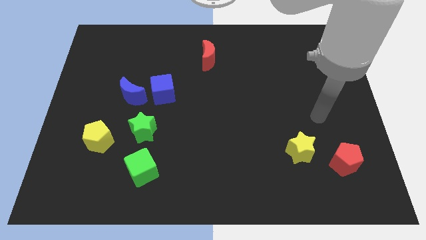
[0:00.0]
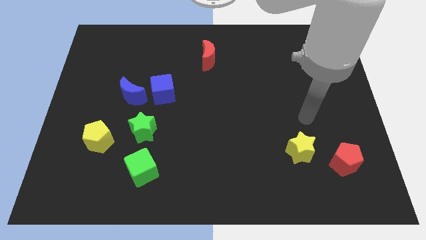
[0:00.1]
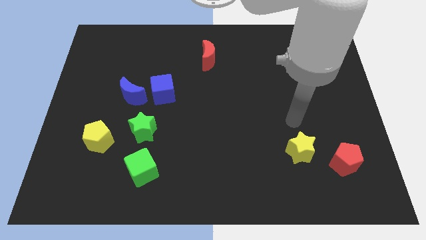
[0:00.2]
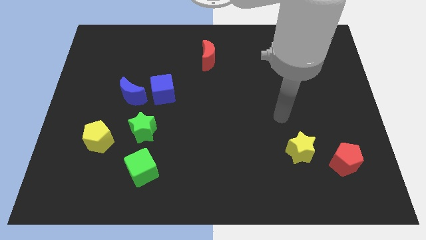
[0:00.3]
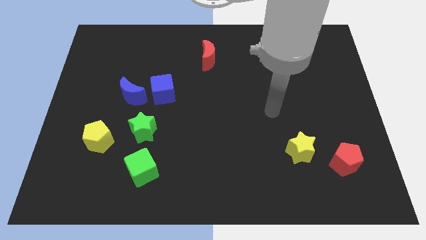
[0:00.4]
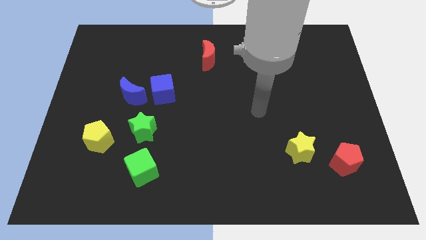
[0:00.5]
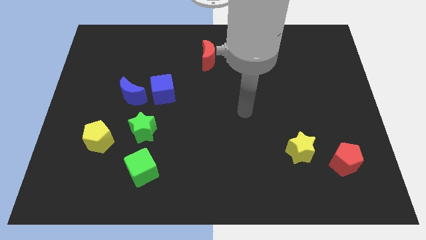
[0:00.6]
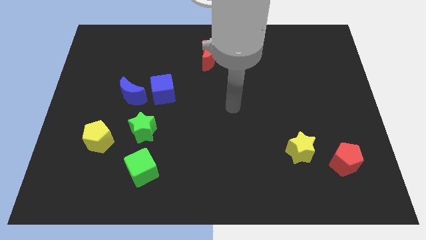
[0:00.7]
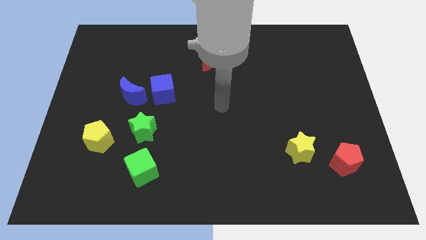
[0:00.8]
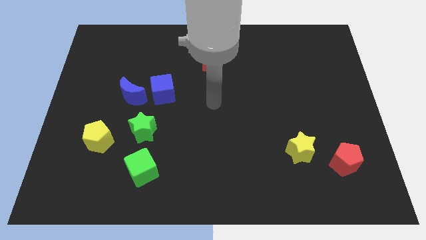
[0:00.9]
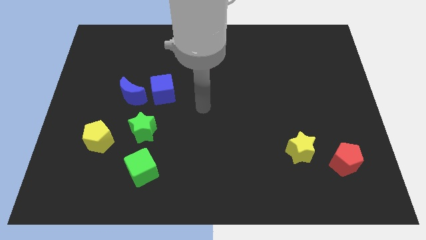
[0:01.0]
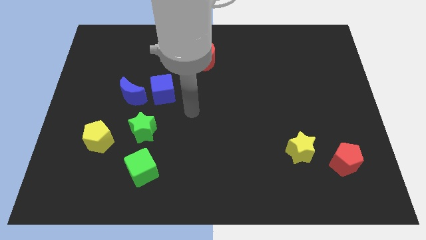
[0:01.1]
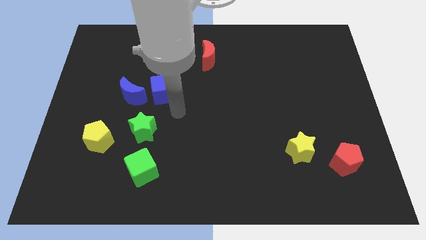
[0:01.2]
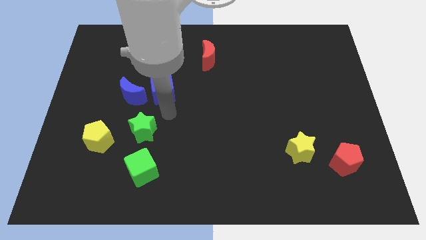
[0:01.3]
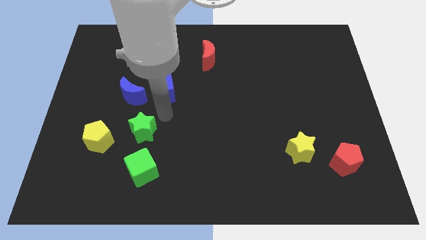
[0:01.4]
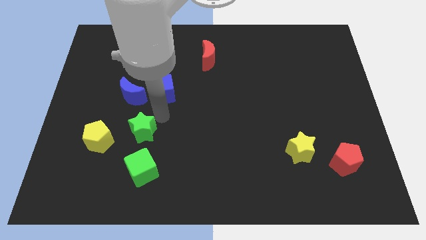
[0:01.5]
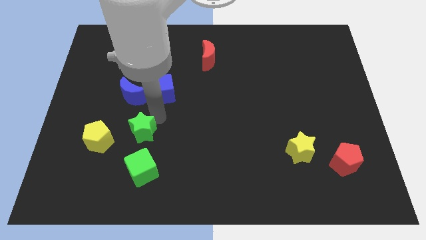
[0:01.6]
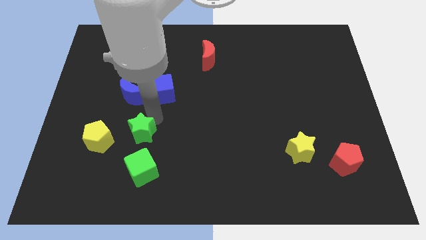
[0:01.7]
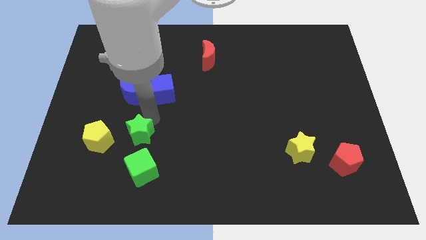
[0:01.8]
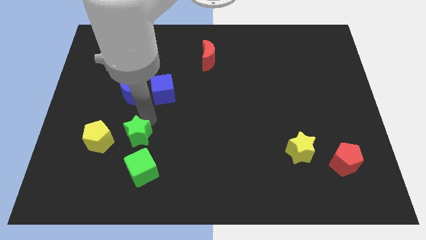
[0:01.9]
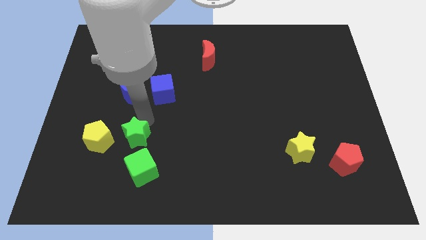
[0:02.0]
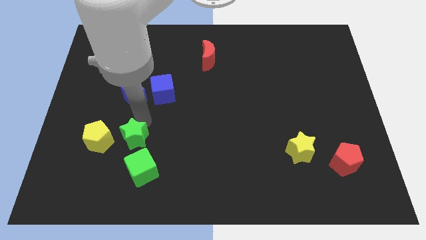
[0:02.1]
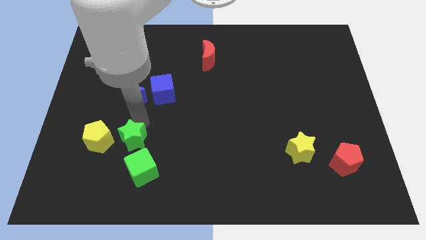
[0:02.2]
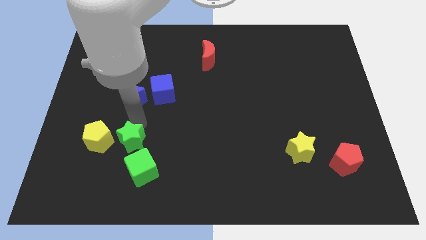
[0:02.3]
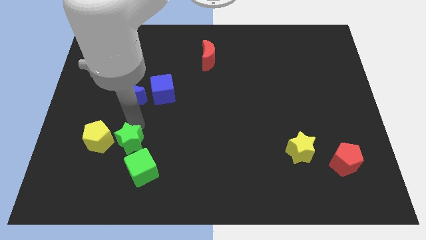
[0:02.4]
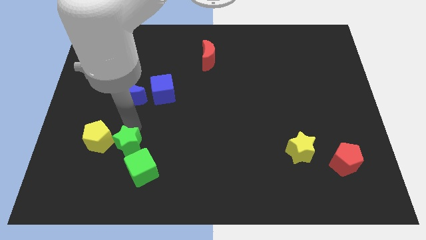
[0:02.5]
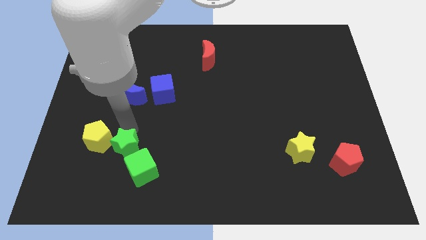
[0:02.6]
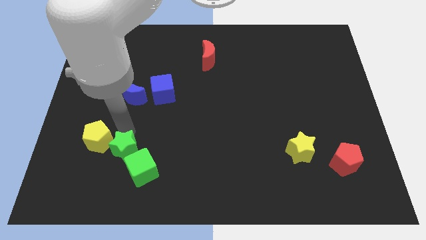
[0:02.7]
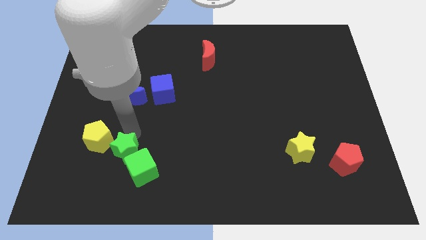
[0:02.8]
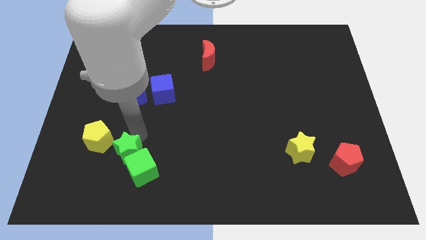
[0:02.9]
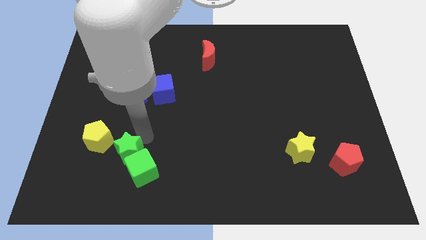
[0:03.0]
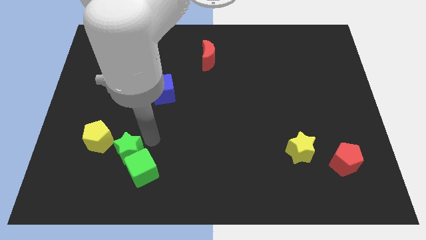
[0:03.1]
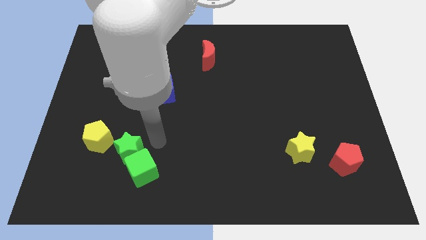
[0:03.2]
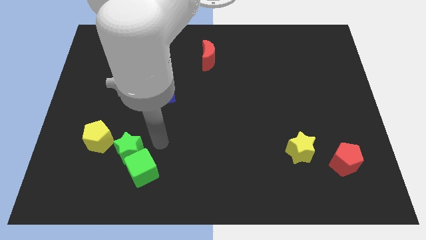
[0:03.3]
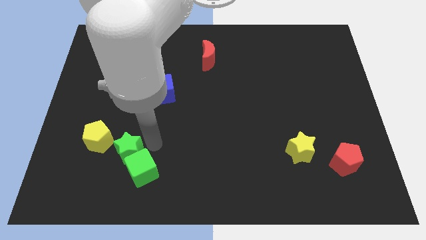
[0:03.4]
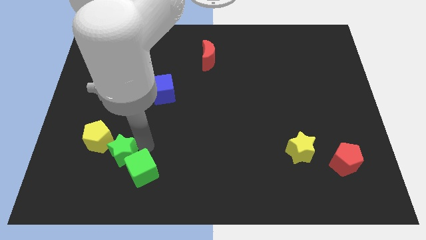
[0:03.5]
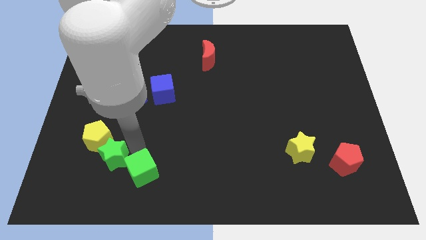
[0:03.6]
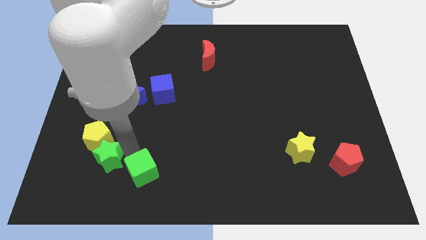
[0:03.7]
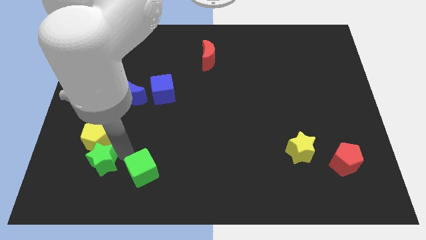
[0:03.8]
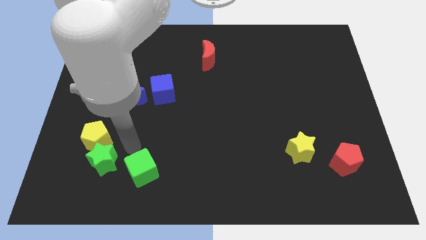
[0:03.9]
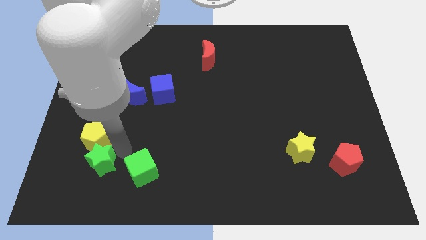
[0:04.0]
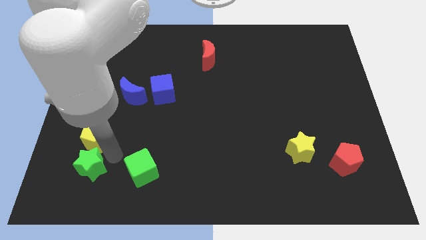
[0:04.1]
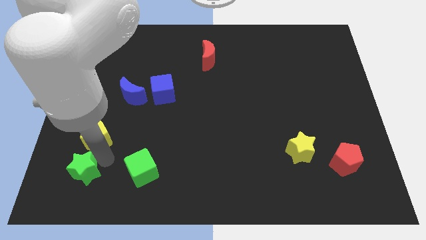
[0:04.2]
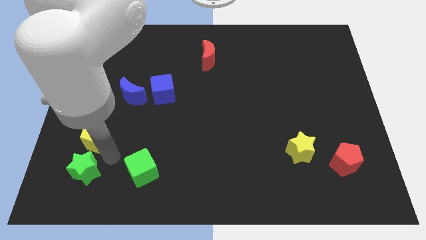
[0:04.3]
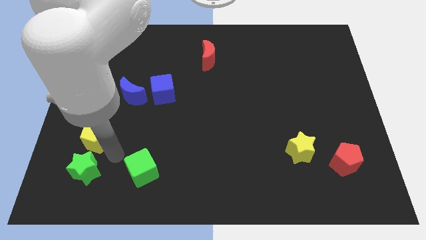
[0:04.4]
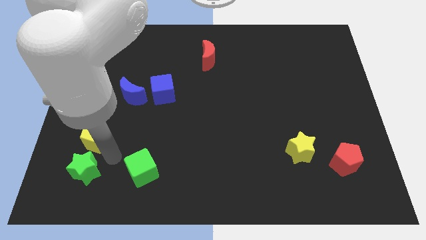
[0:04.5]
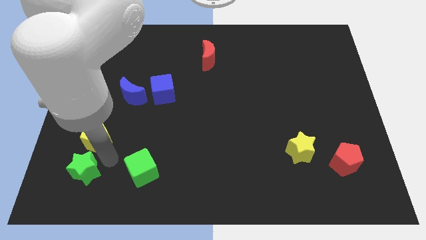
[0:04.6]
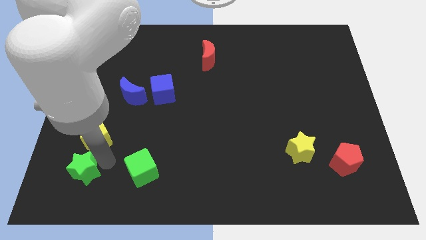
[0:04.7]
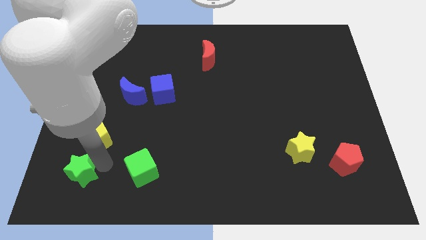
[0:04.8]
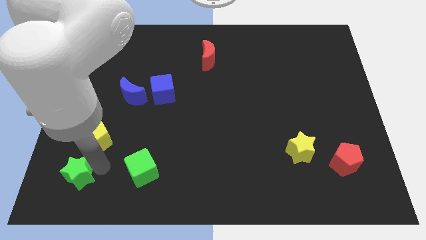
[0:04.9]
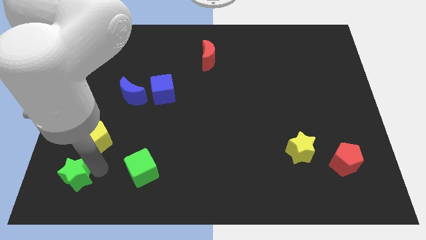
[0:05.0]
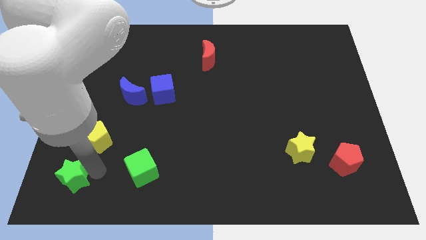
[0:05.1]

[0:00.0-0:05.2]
move the green star to the bottom left of the board
